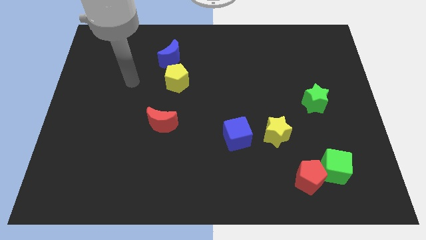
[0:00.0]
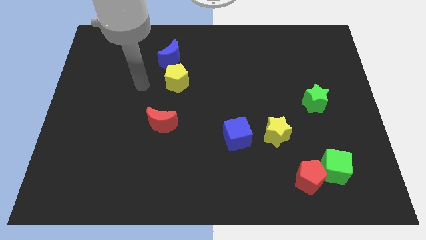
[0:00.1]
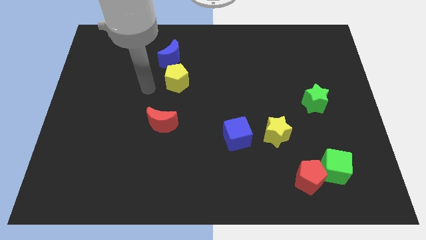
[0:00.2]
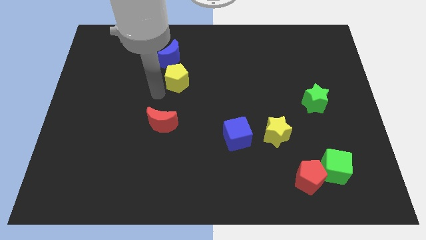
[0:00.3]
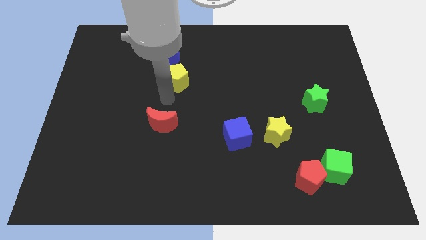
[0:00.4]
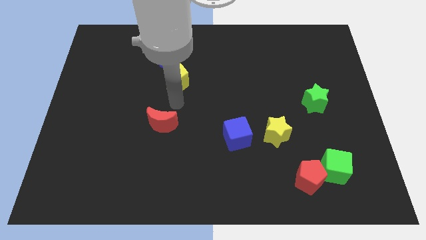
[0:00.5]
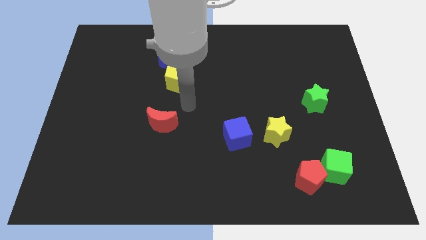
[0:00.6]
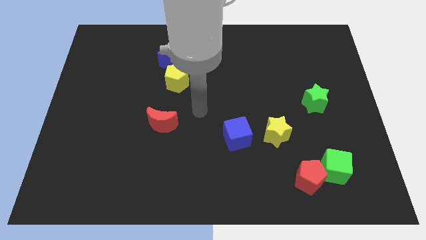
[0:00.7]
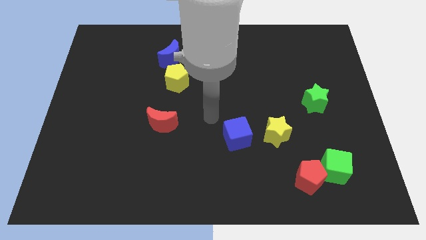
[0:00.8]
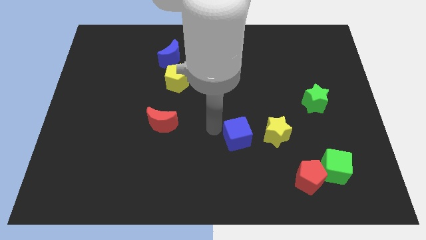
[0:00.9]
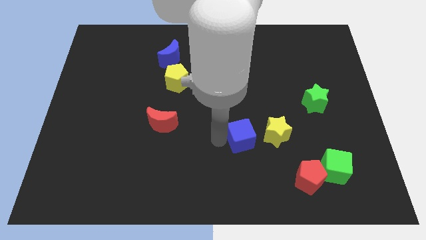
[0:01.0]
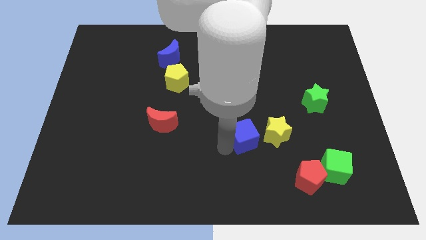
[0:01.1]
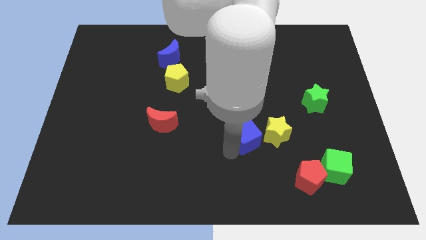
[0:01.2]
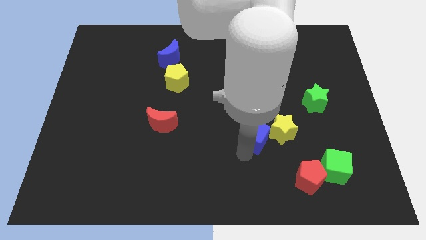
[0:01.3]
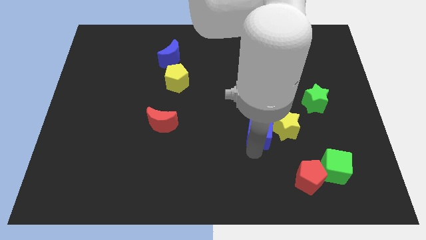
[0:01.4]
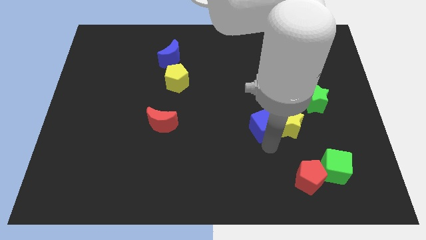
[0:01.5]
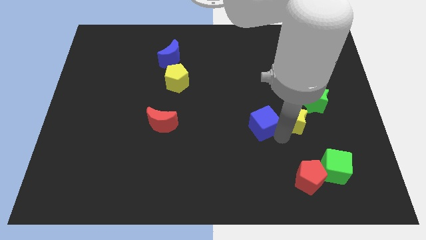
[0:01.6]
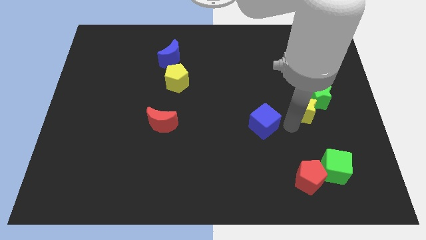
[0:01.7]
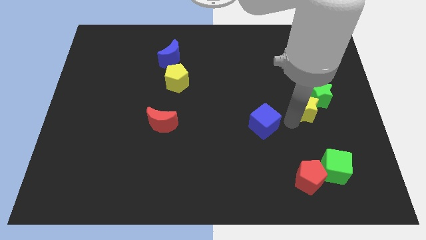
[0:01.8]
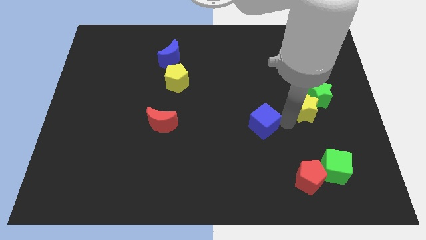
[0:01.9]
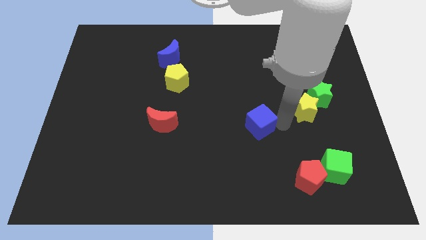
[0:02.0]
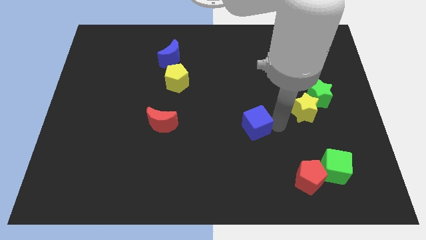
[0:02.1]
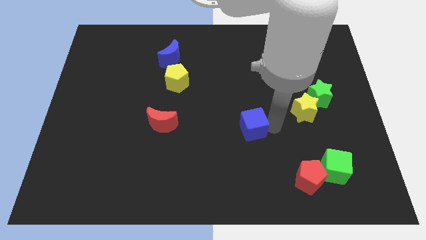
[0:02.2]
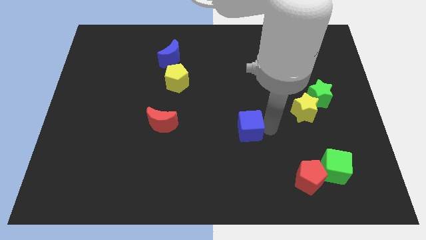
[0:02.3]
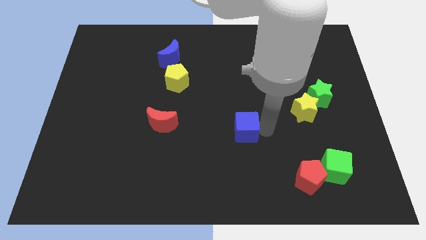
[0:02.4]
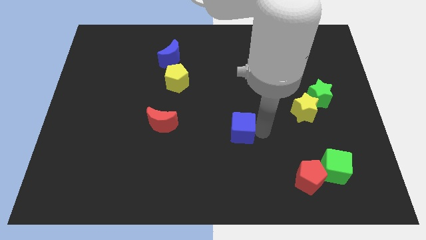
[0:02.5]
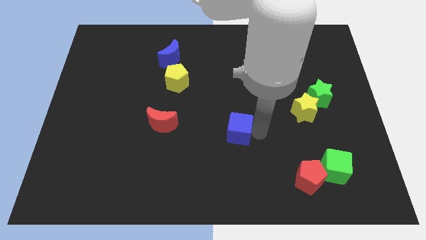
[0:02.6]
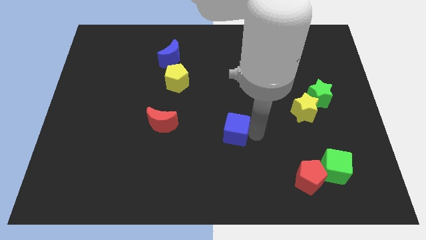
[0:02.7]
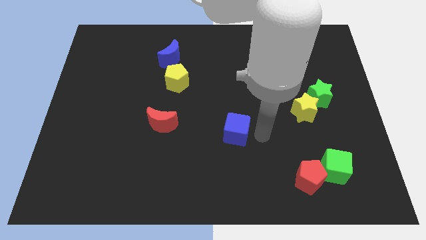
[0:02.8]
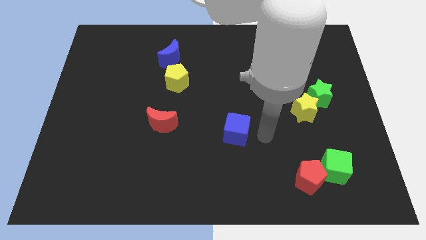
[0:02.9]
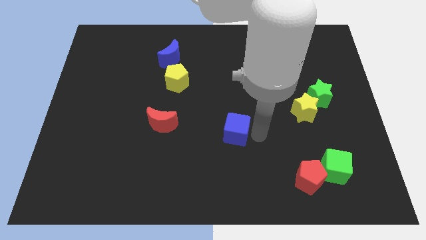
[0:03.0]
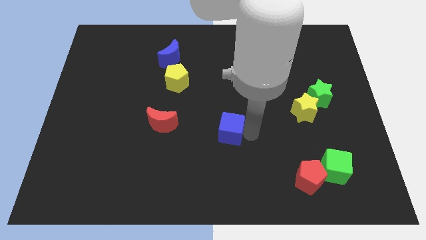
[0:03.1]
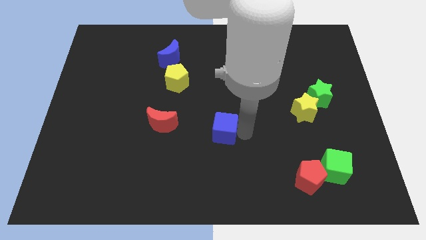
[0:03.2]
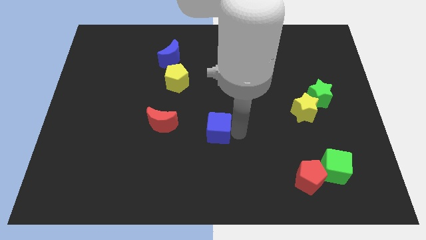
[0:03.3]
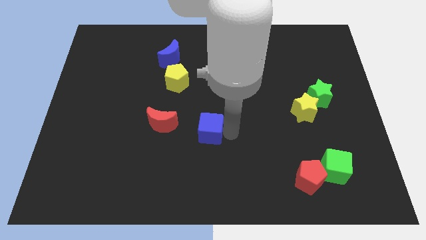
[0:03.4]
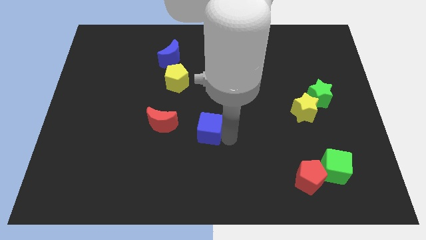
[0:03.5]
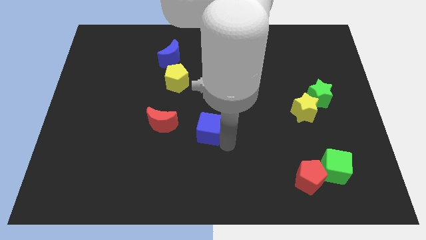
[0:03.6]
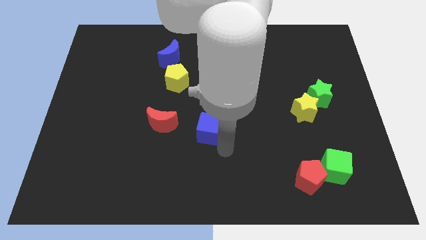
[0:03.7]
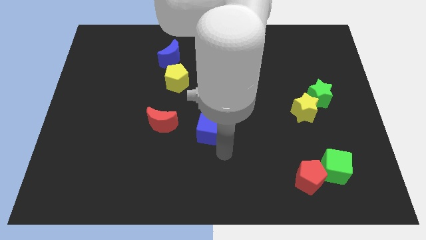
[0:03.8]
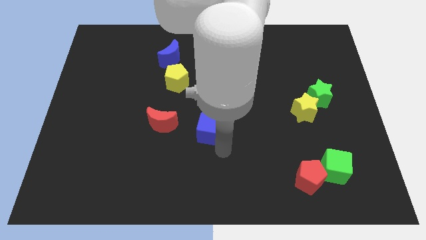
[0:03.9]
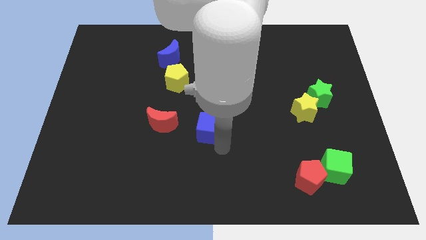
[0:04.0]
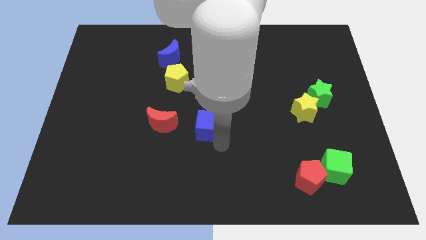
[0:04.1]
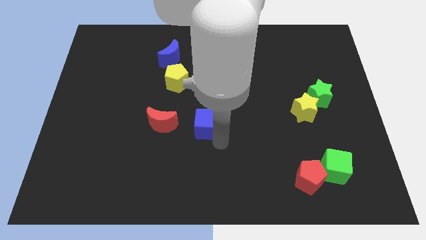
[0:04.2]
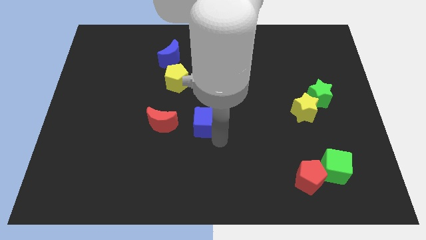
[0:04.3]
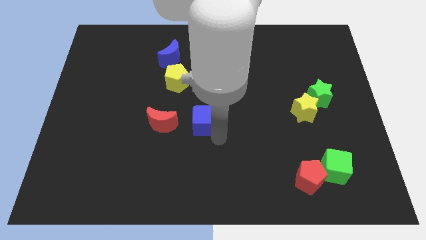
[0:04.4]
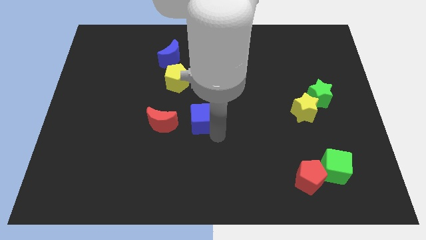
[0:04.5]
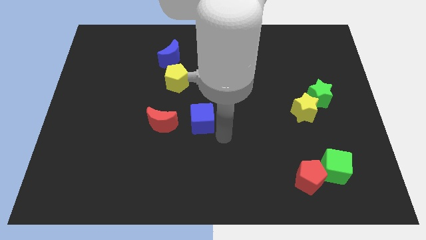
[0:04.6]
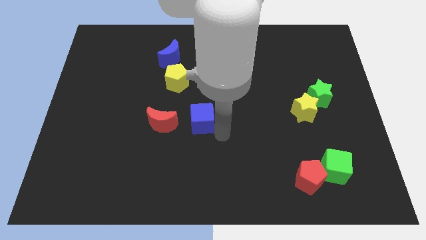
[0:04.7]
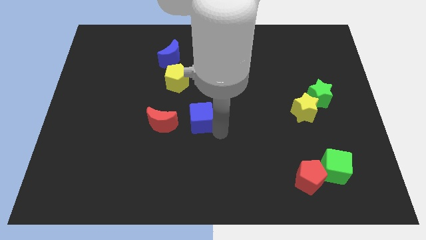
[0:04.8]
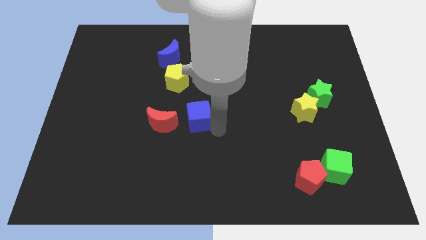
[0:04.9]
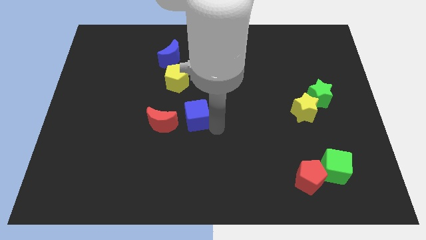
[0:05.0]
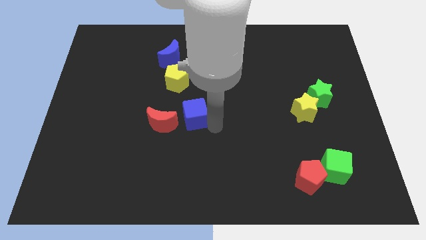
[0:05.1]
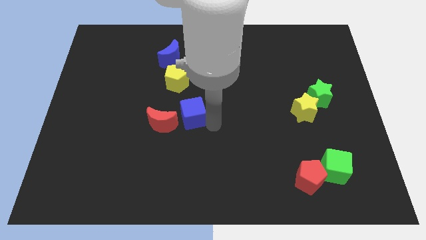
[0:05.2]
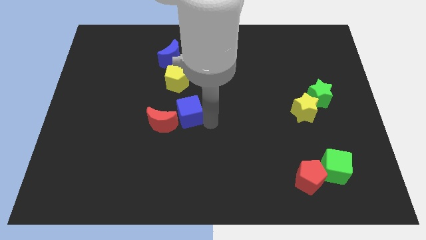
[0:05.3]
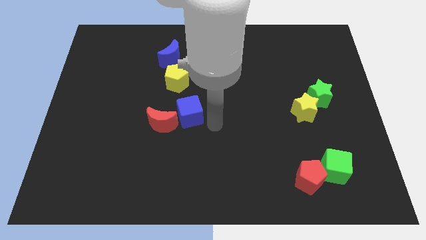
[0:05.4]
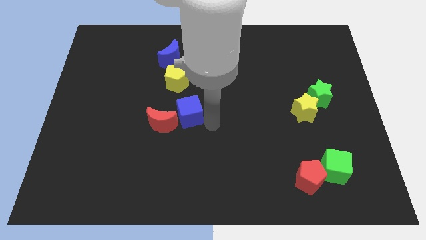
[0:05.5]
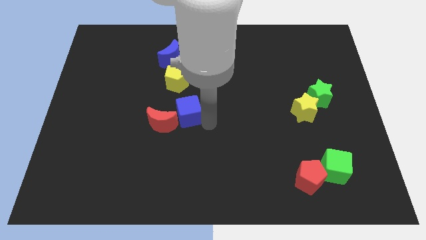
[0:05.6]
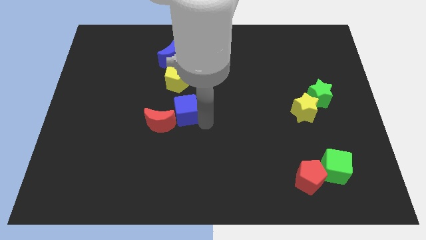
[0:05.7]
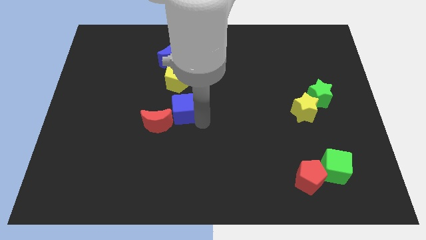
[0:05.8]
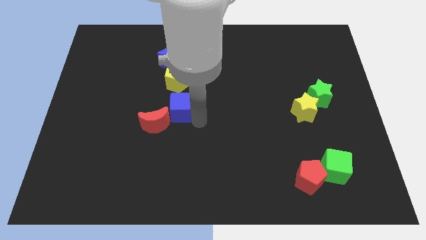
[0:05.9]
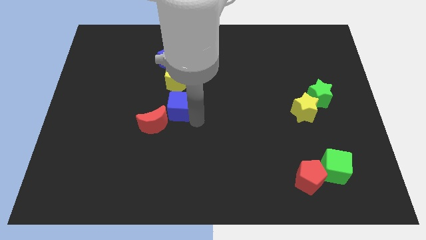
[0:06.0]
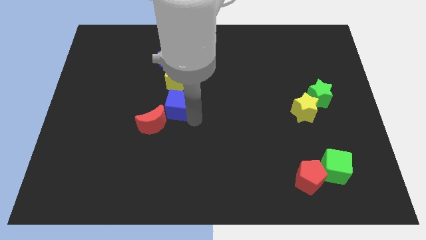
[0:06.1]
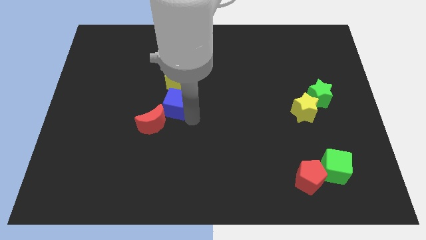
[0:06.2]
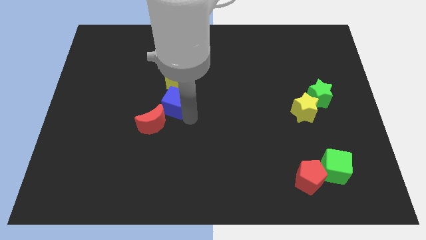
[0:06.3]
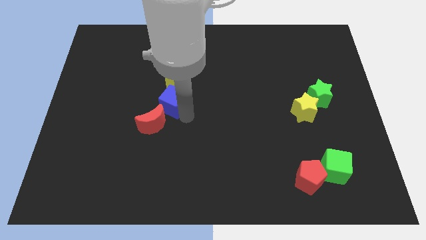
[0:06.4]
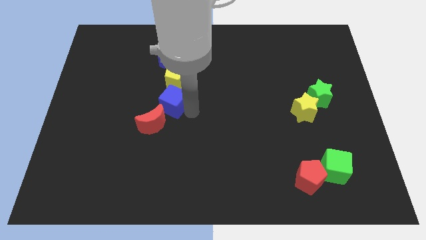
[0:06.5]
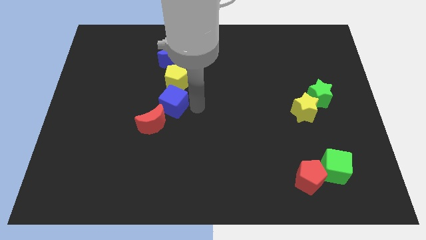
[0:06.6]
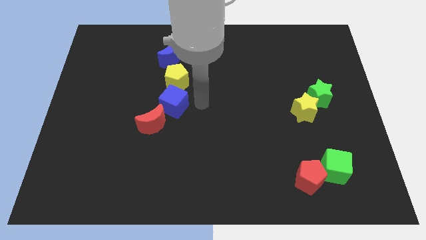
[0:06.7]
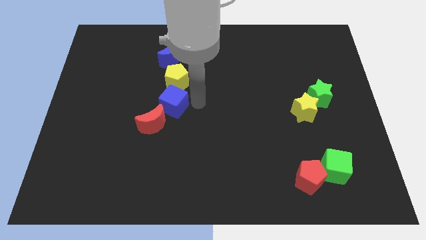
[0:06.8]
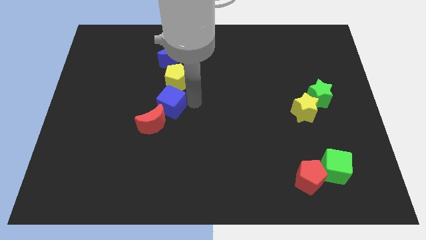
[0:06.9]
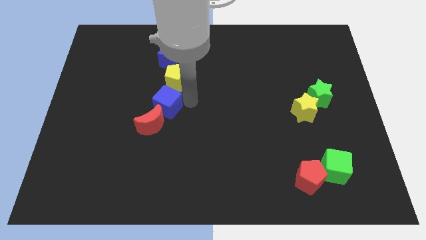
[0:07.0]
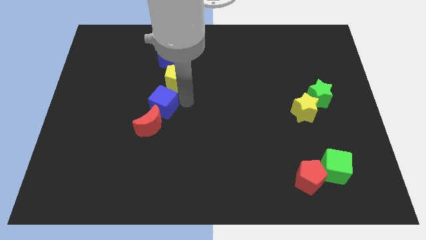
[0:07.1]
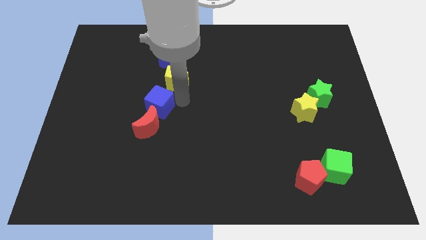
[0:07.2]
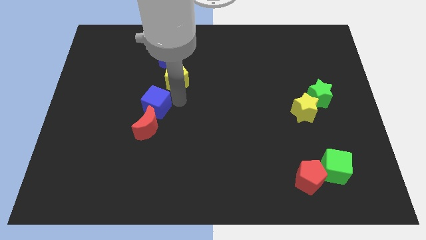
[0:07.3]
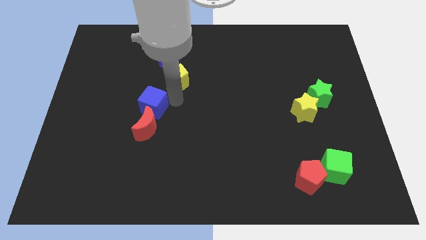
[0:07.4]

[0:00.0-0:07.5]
slide the blue cube to the top left of the red moon
